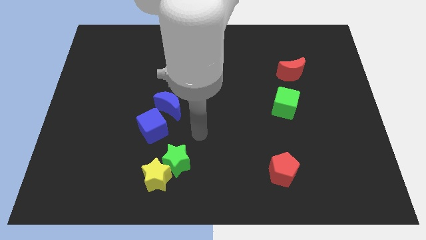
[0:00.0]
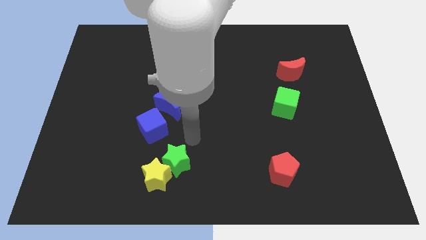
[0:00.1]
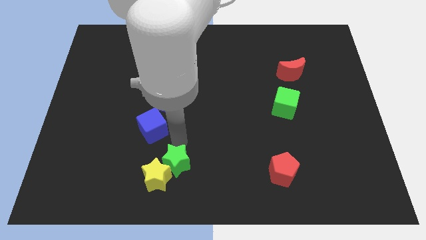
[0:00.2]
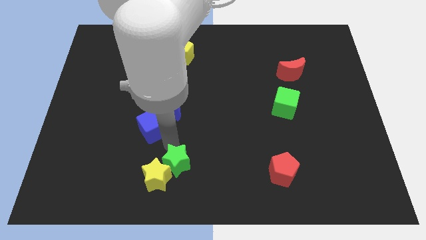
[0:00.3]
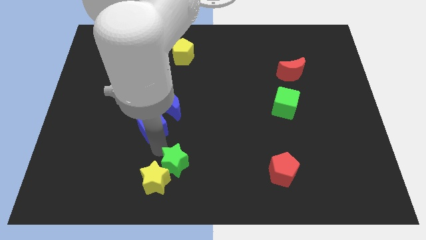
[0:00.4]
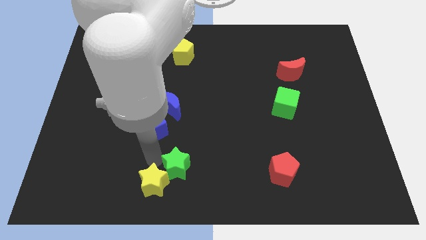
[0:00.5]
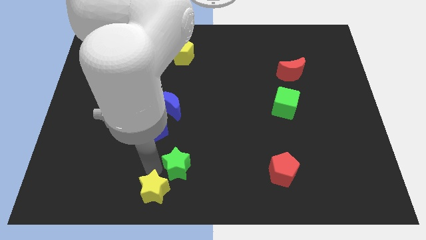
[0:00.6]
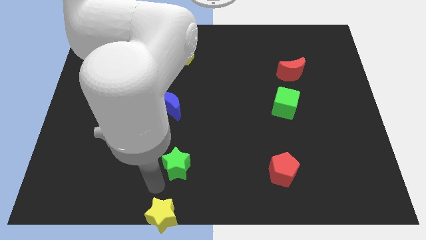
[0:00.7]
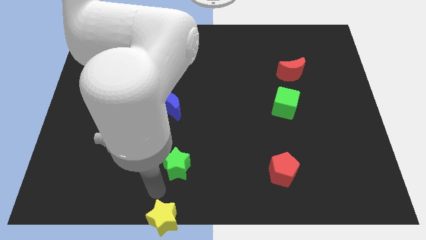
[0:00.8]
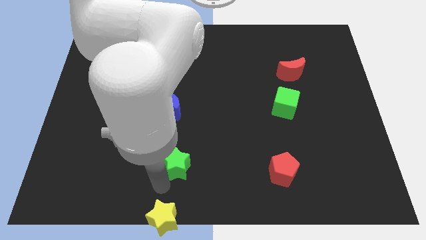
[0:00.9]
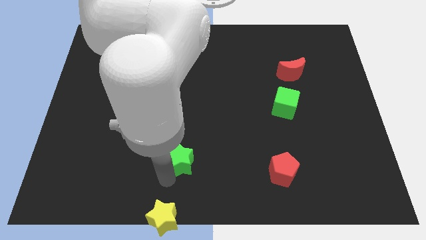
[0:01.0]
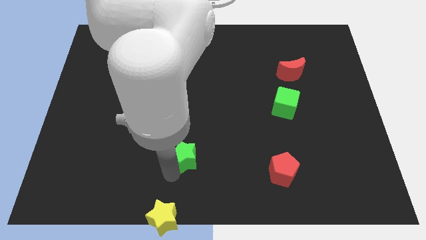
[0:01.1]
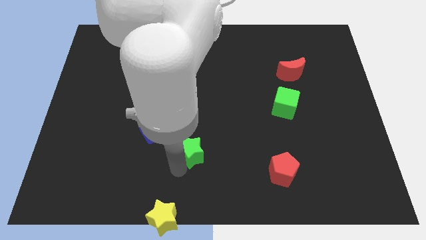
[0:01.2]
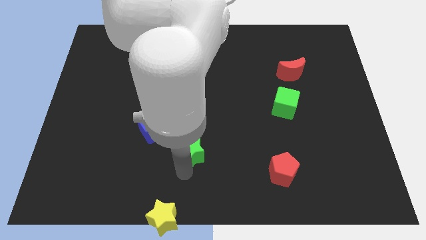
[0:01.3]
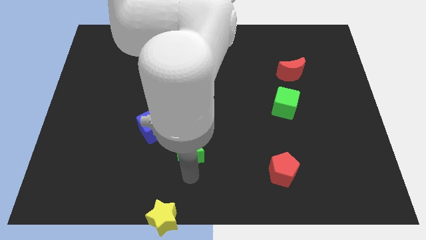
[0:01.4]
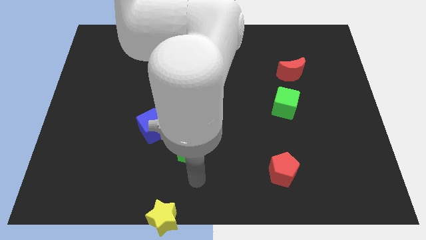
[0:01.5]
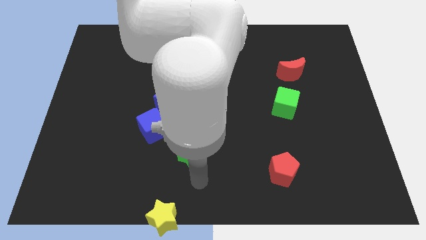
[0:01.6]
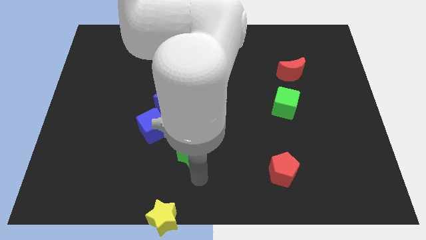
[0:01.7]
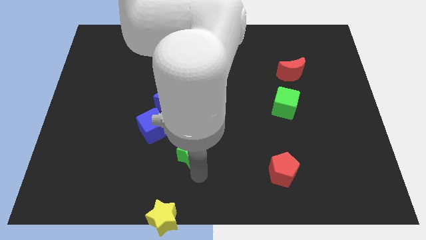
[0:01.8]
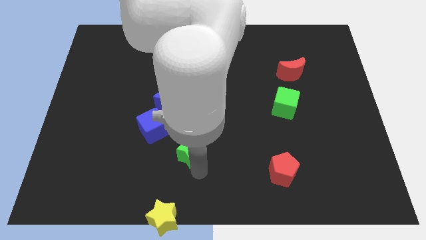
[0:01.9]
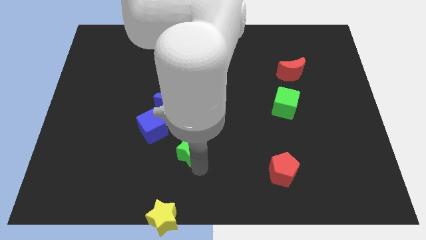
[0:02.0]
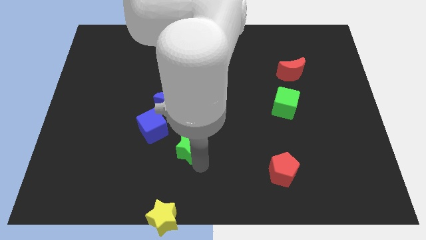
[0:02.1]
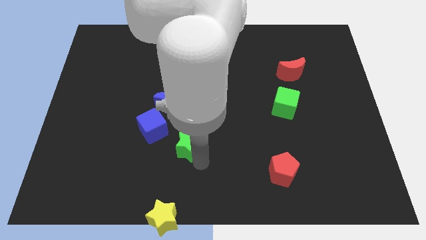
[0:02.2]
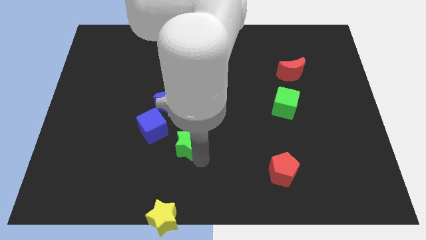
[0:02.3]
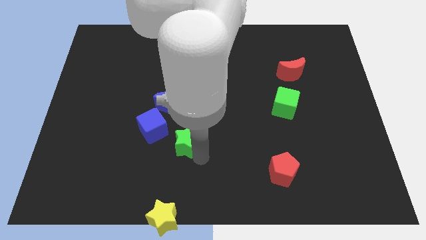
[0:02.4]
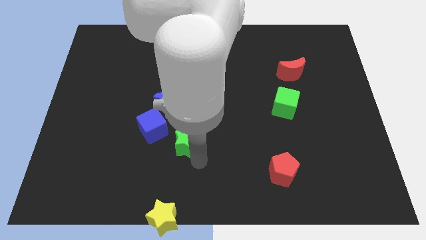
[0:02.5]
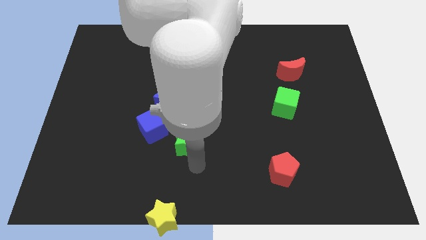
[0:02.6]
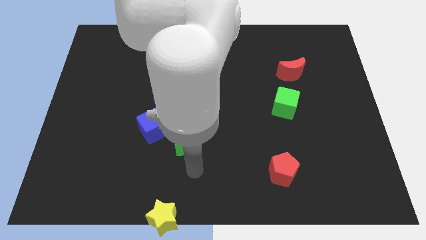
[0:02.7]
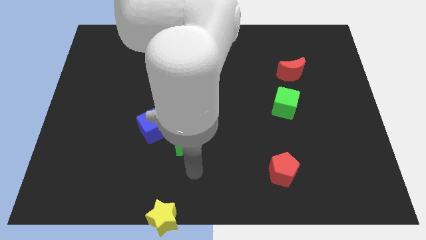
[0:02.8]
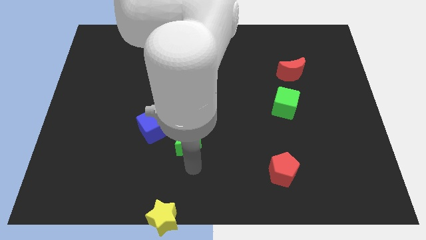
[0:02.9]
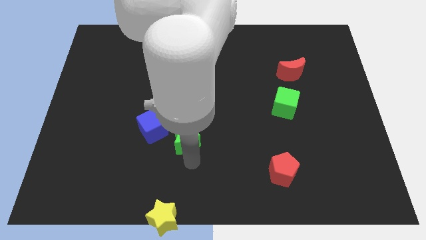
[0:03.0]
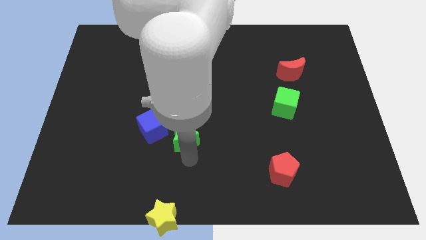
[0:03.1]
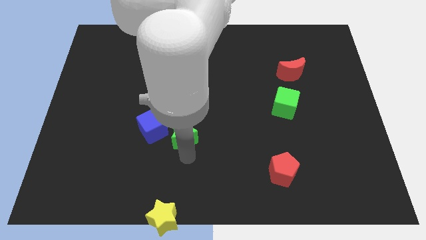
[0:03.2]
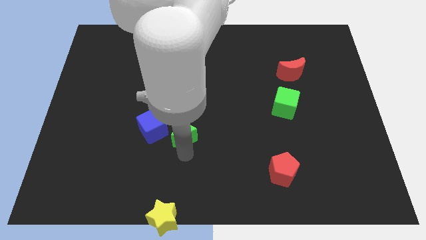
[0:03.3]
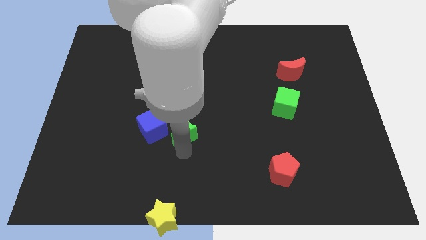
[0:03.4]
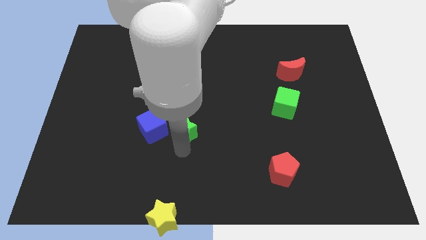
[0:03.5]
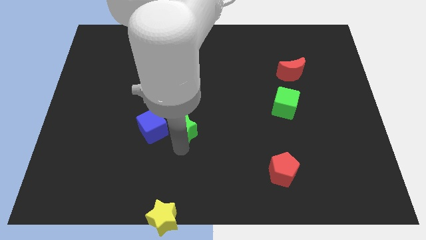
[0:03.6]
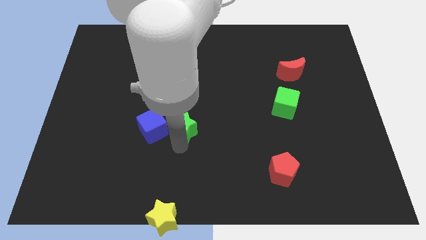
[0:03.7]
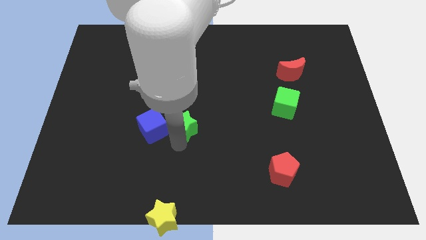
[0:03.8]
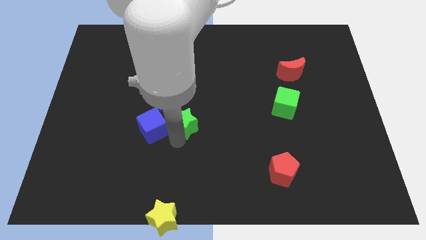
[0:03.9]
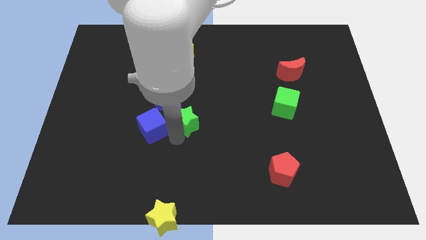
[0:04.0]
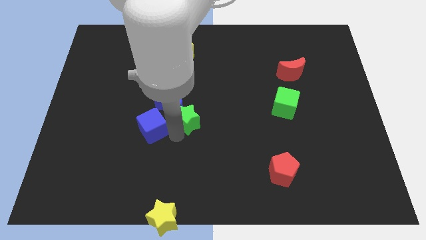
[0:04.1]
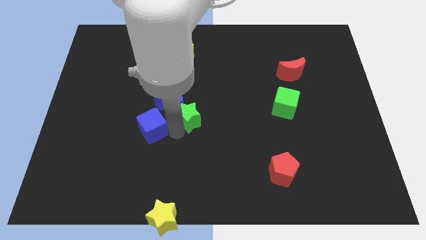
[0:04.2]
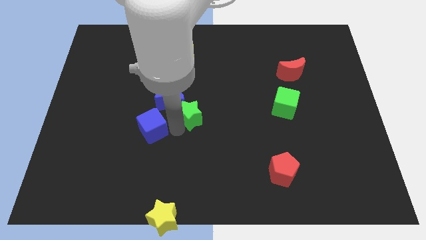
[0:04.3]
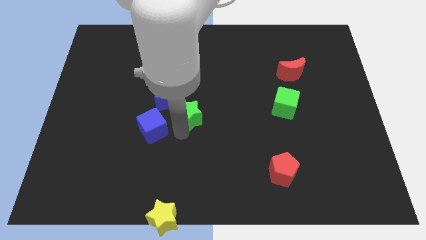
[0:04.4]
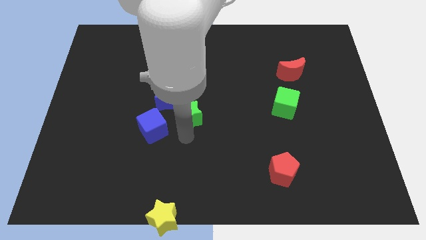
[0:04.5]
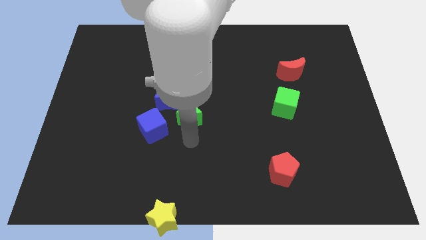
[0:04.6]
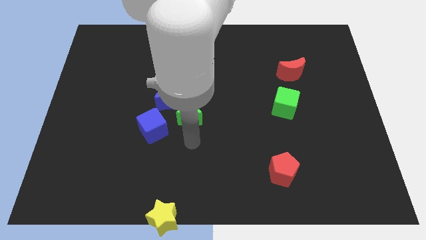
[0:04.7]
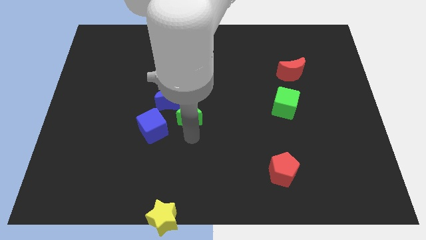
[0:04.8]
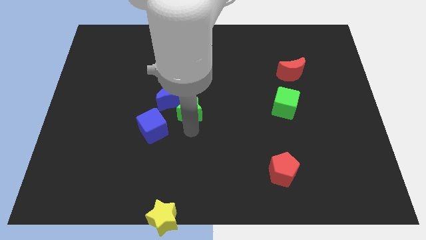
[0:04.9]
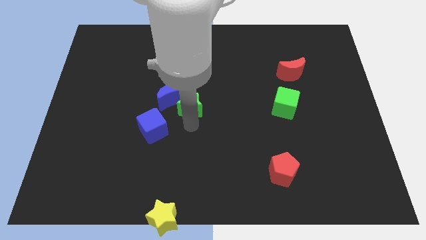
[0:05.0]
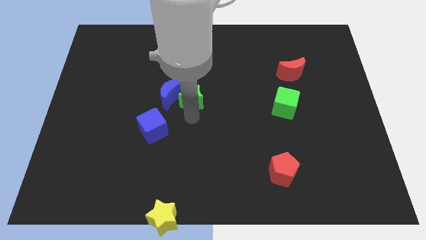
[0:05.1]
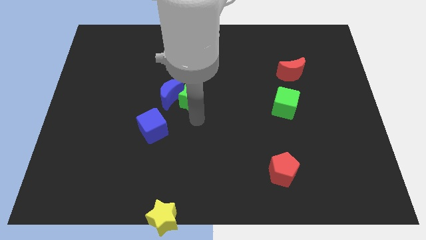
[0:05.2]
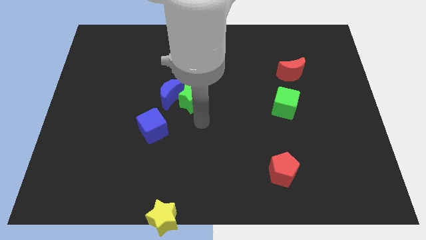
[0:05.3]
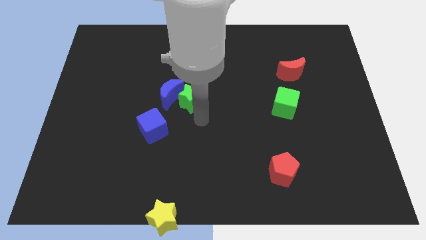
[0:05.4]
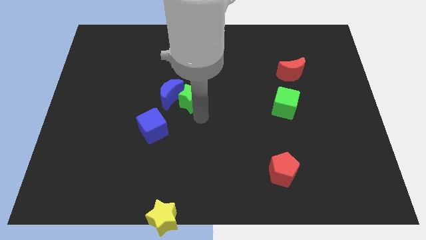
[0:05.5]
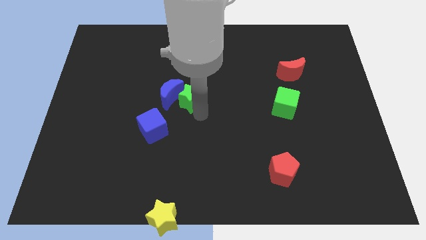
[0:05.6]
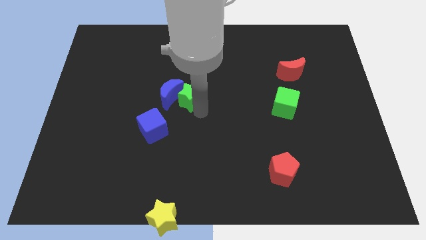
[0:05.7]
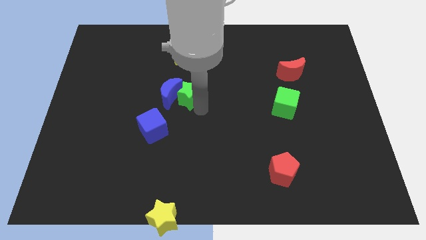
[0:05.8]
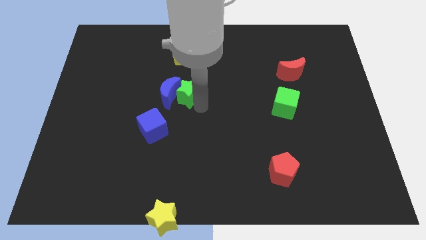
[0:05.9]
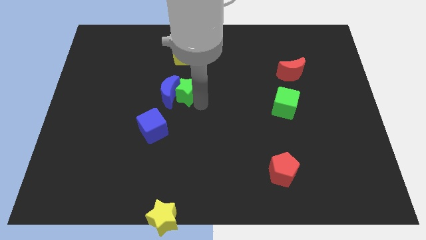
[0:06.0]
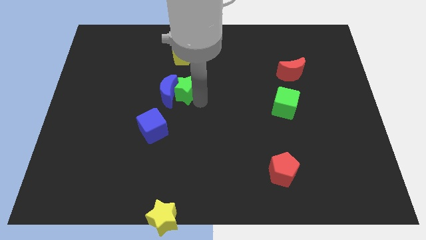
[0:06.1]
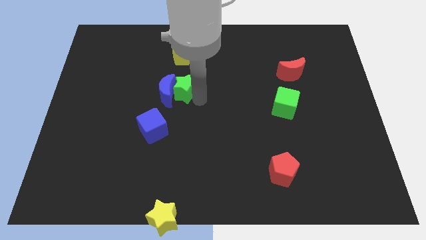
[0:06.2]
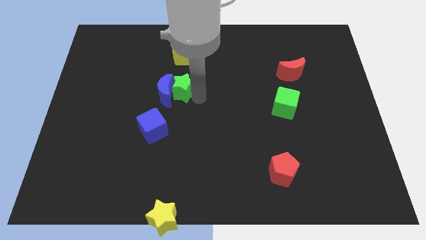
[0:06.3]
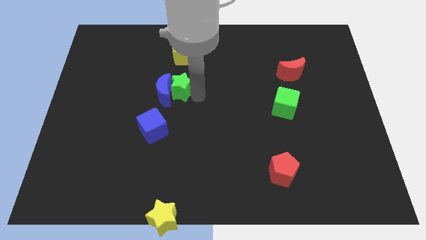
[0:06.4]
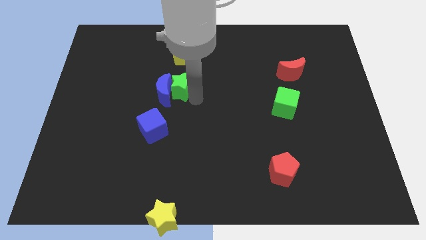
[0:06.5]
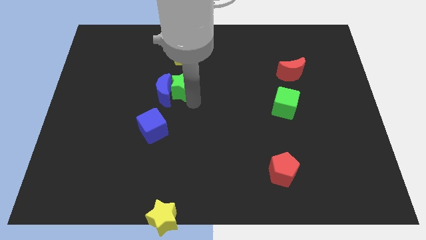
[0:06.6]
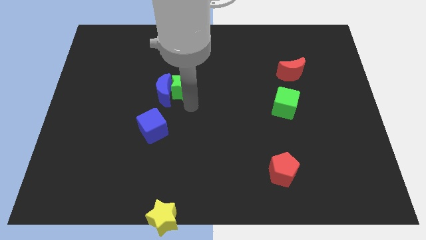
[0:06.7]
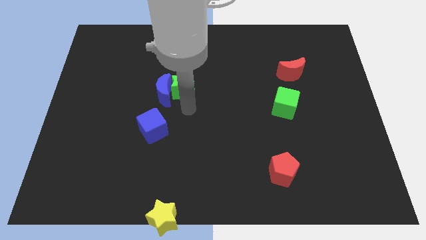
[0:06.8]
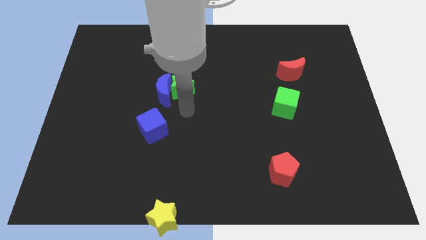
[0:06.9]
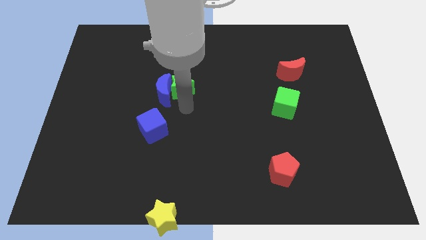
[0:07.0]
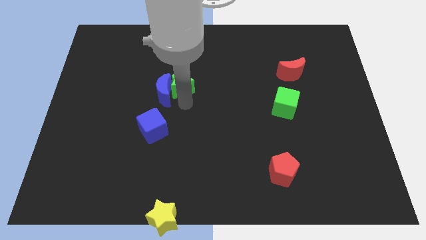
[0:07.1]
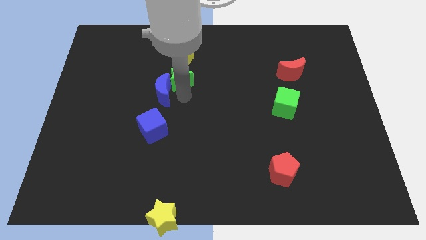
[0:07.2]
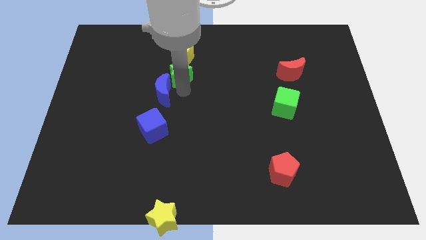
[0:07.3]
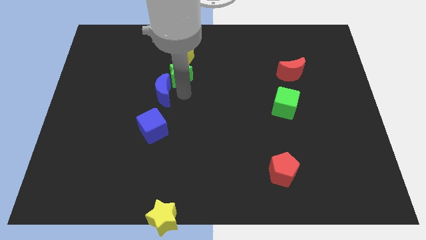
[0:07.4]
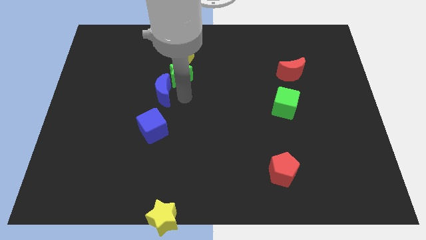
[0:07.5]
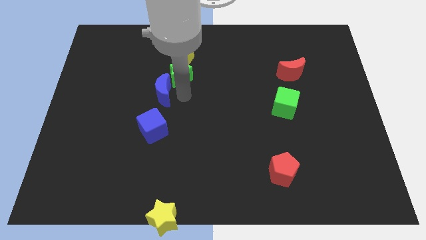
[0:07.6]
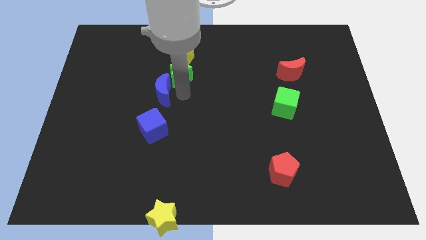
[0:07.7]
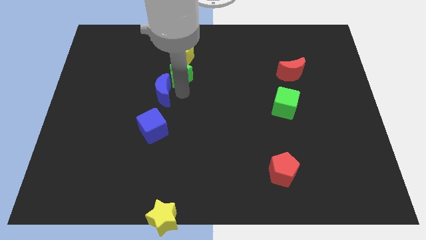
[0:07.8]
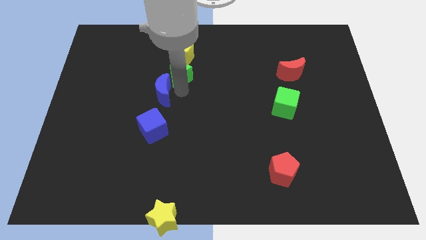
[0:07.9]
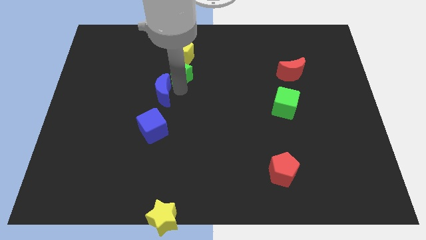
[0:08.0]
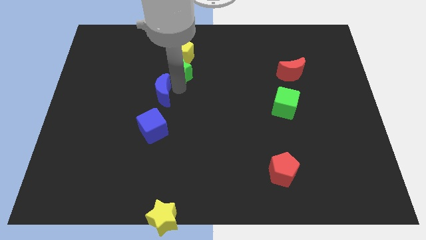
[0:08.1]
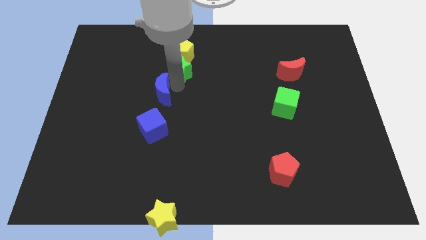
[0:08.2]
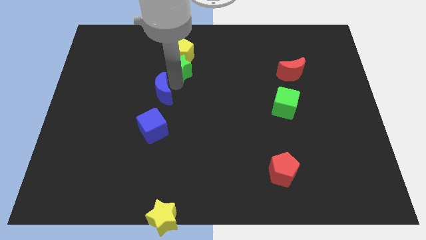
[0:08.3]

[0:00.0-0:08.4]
move the green star next to the yellow pentagon
